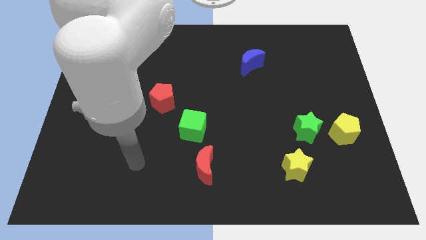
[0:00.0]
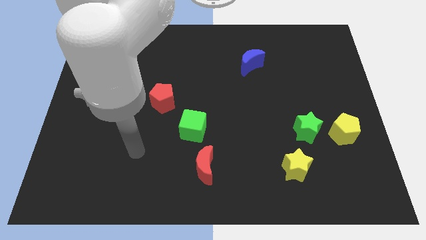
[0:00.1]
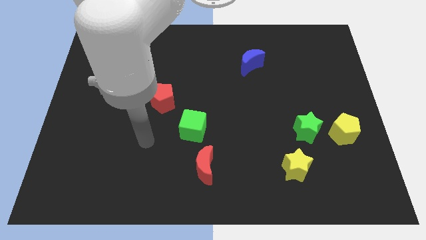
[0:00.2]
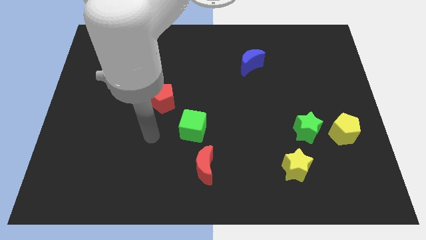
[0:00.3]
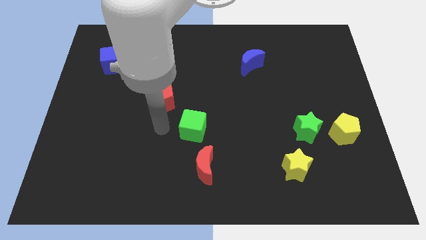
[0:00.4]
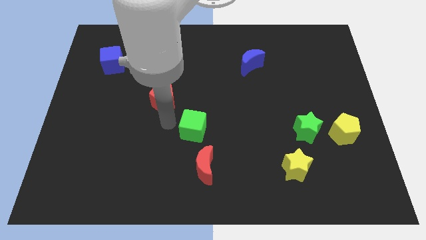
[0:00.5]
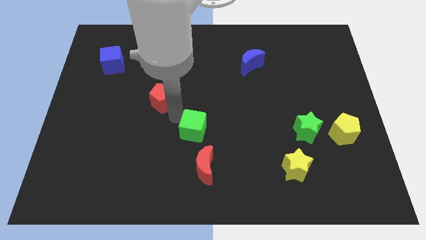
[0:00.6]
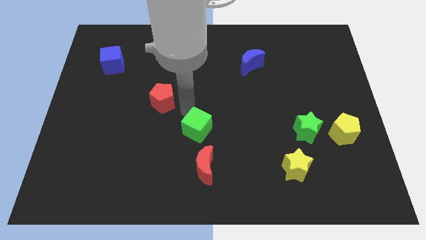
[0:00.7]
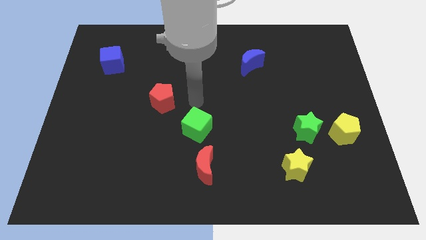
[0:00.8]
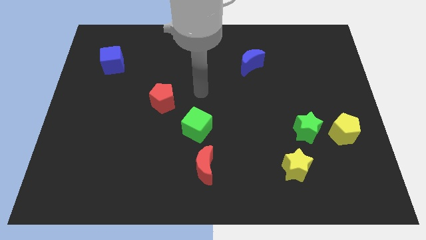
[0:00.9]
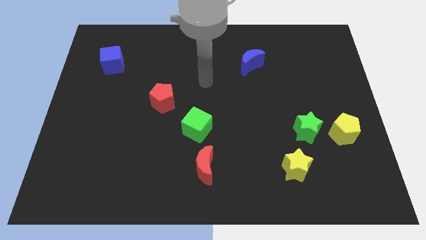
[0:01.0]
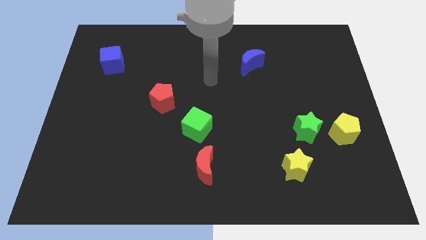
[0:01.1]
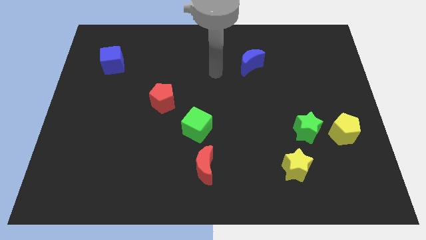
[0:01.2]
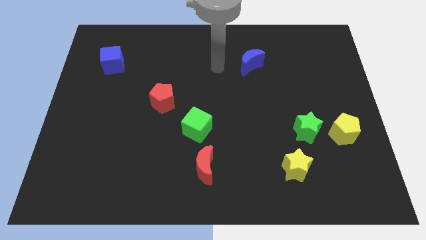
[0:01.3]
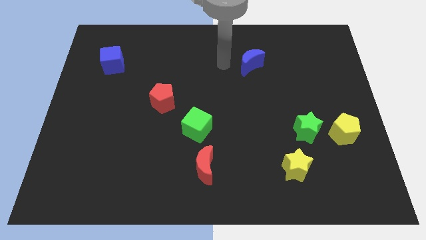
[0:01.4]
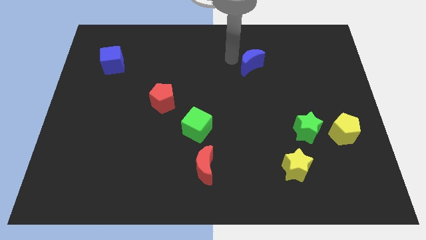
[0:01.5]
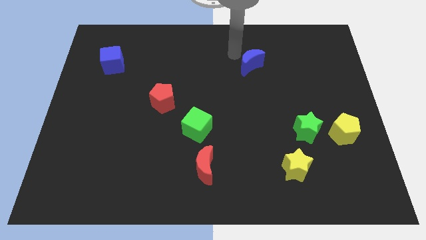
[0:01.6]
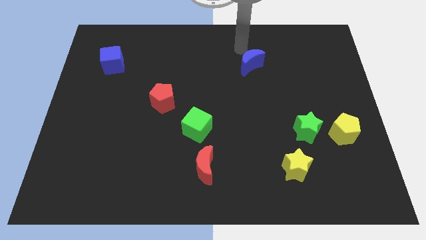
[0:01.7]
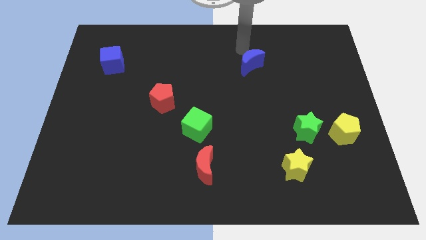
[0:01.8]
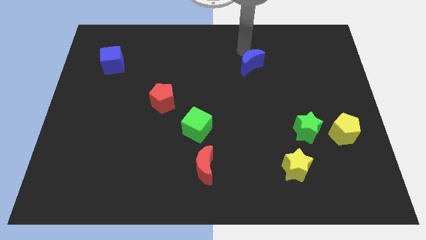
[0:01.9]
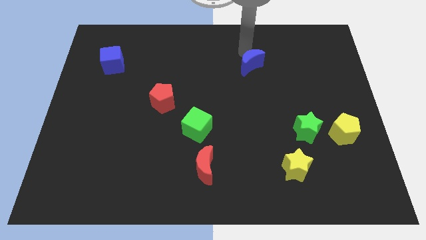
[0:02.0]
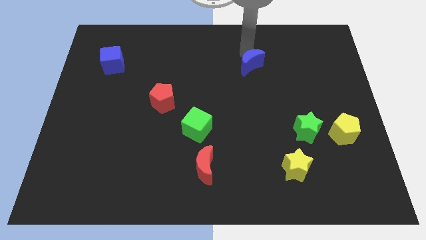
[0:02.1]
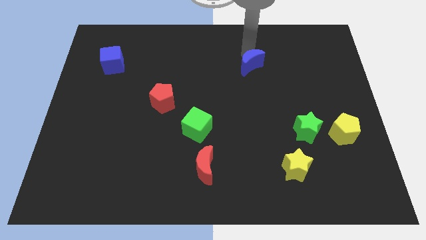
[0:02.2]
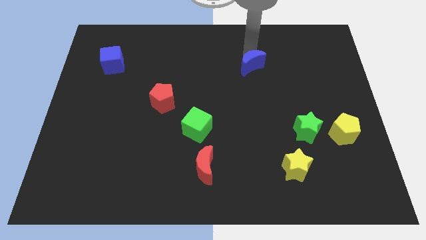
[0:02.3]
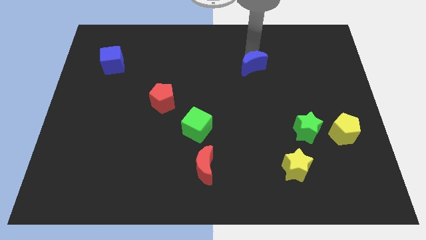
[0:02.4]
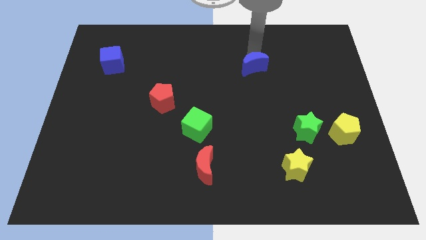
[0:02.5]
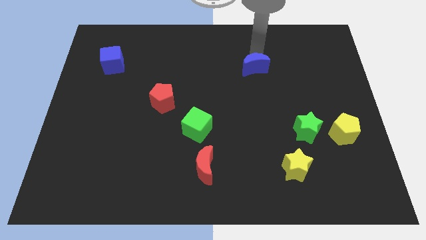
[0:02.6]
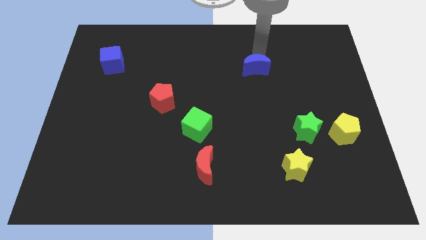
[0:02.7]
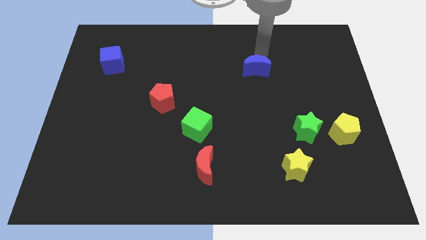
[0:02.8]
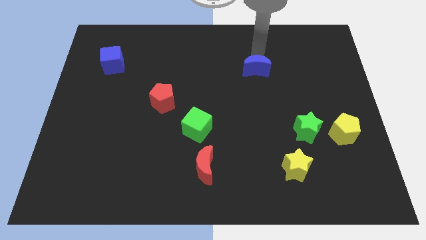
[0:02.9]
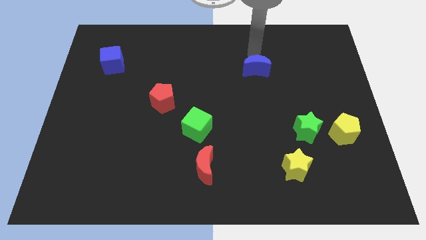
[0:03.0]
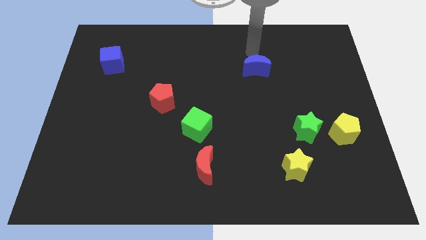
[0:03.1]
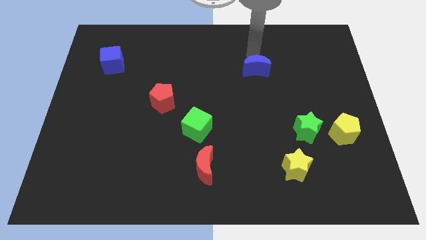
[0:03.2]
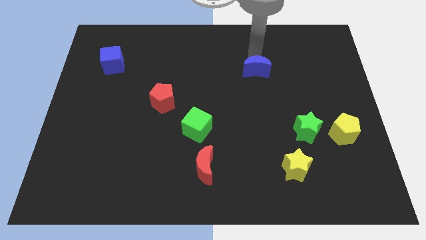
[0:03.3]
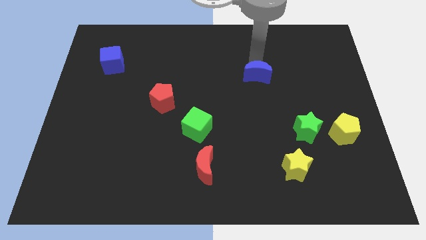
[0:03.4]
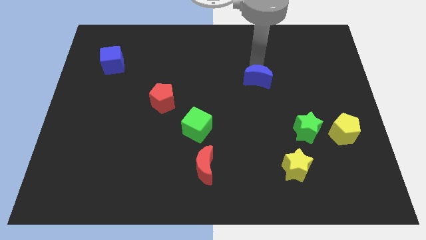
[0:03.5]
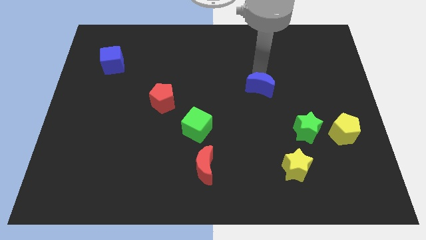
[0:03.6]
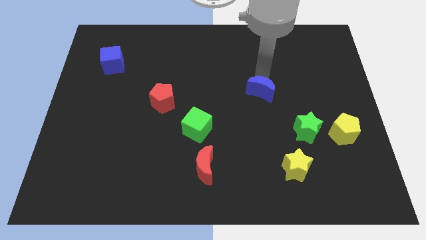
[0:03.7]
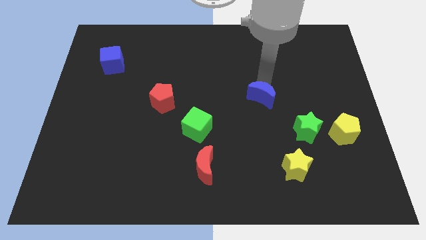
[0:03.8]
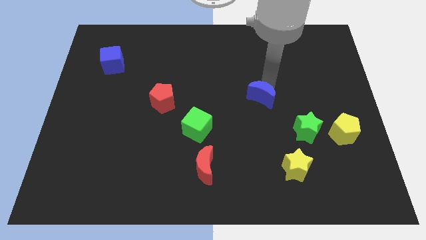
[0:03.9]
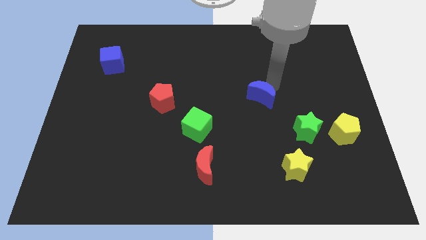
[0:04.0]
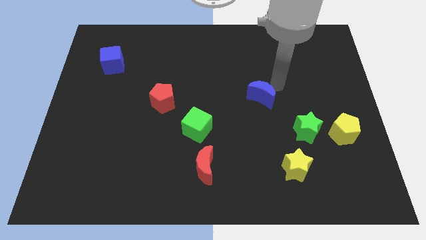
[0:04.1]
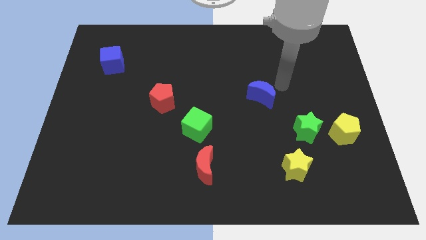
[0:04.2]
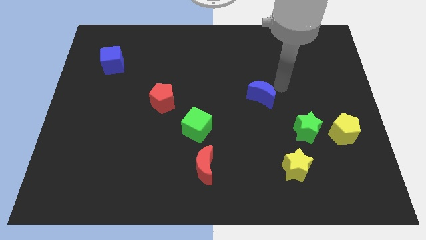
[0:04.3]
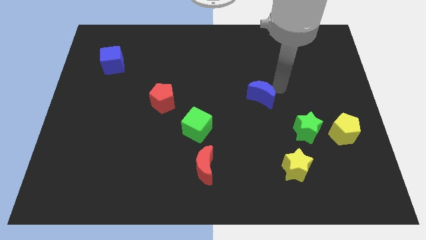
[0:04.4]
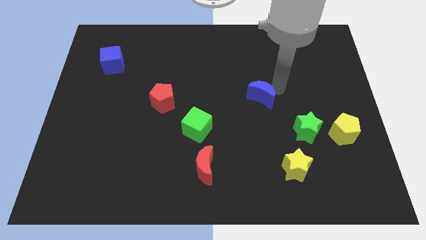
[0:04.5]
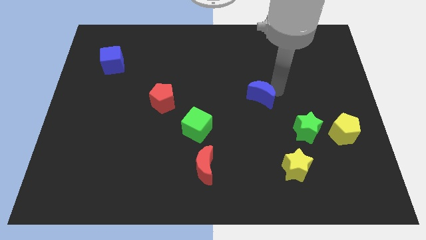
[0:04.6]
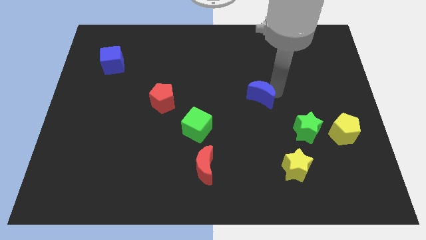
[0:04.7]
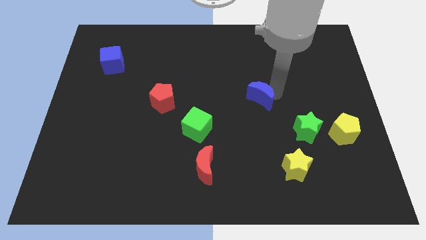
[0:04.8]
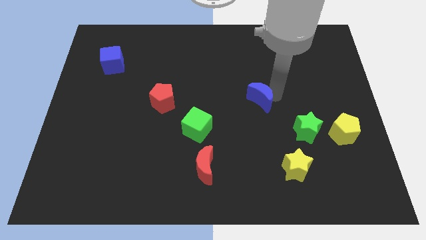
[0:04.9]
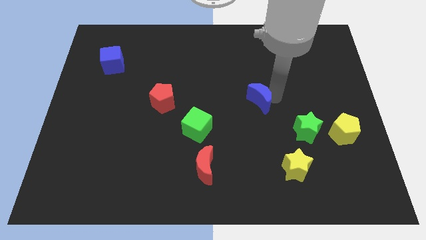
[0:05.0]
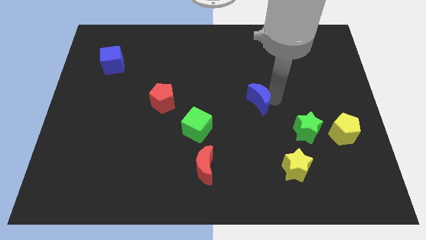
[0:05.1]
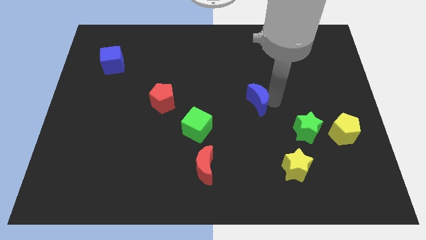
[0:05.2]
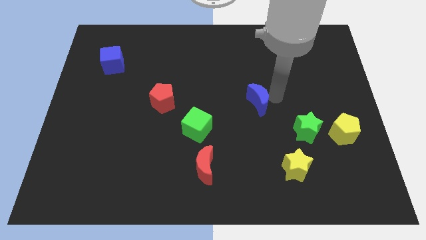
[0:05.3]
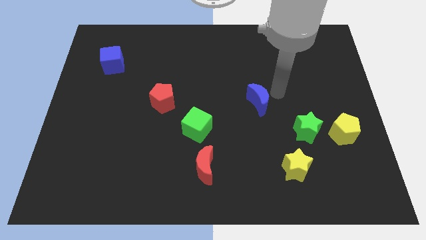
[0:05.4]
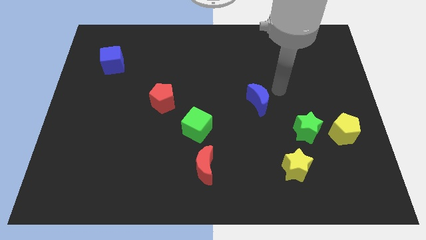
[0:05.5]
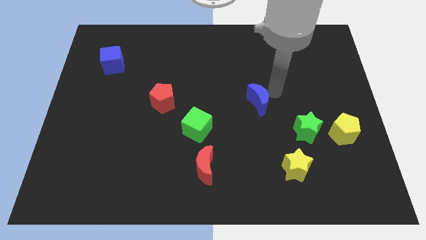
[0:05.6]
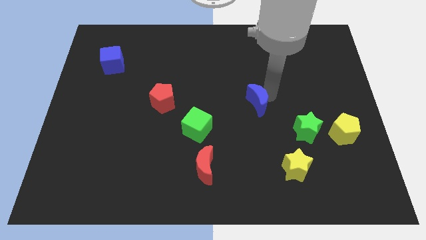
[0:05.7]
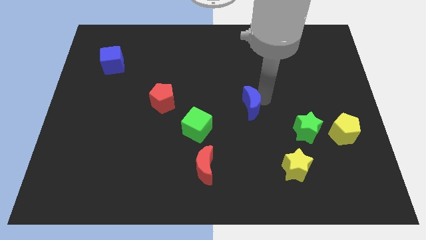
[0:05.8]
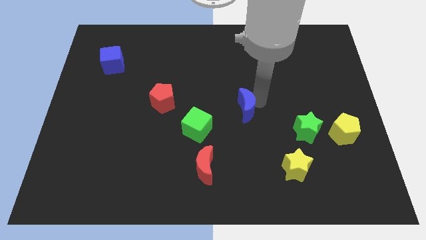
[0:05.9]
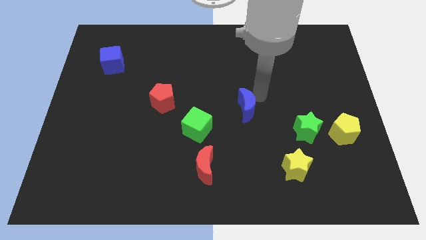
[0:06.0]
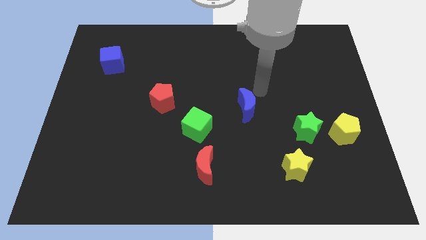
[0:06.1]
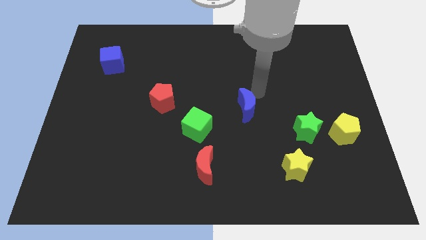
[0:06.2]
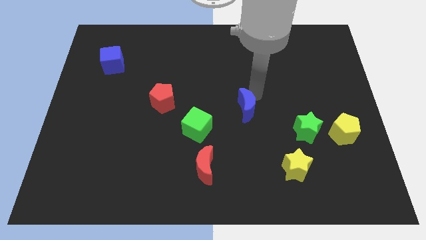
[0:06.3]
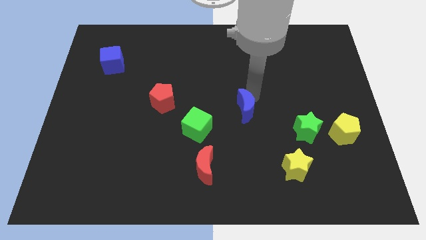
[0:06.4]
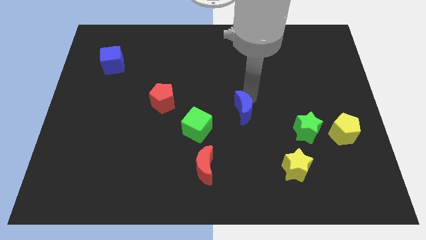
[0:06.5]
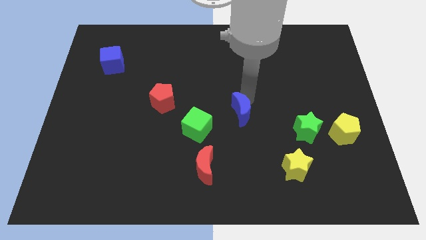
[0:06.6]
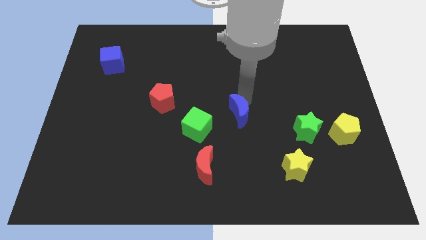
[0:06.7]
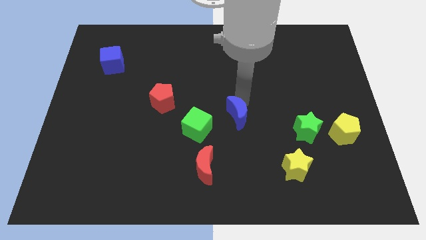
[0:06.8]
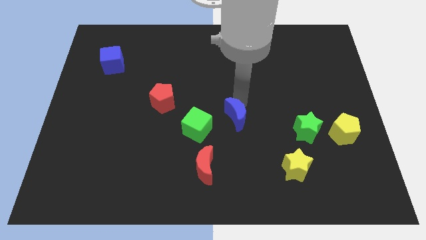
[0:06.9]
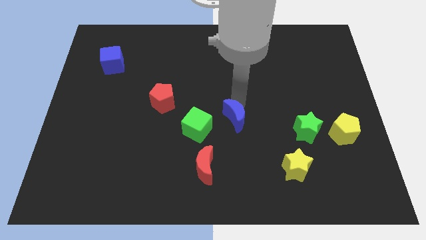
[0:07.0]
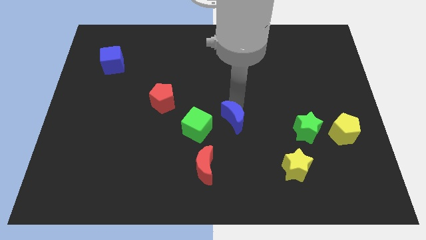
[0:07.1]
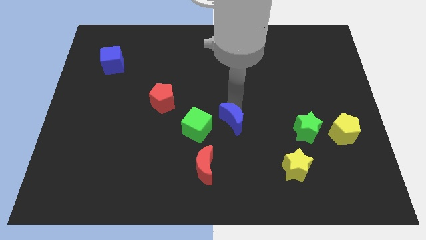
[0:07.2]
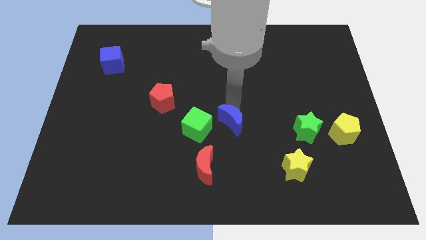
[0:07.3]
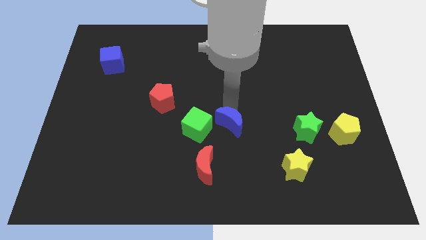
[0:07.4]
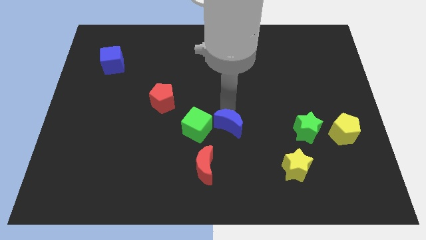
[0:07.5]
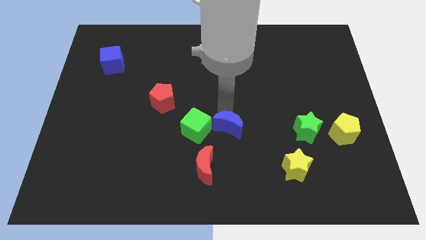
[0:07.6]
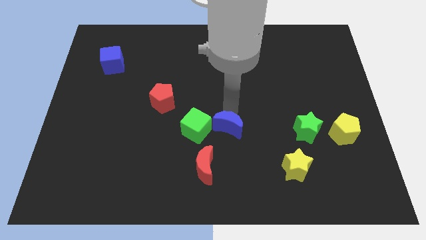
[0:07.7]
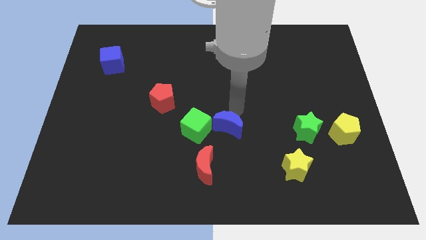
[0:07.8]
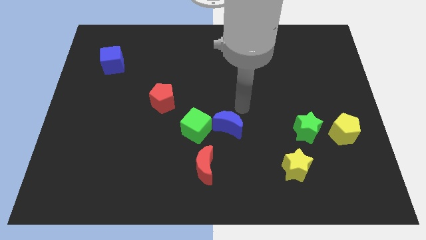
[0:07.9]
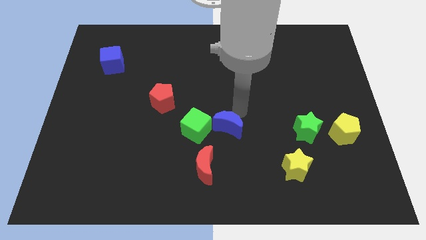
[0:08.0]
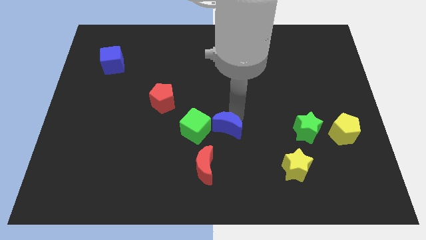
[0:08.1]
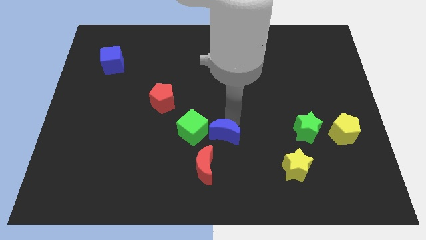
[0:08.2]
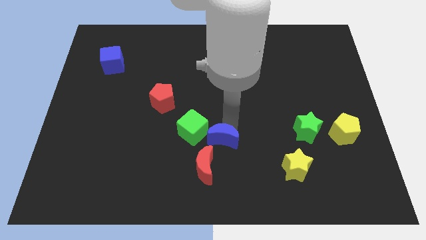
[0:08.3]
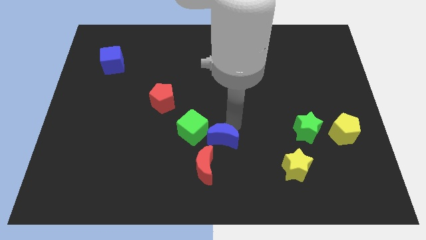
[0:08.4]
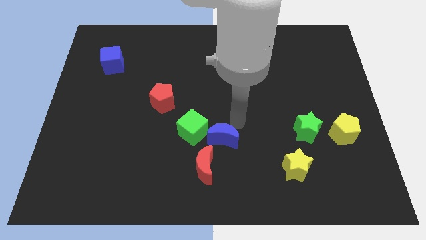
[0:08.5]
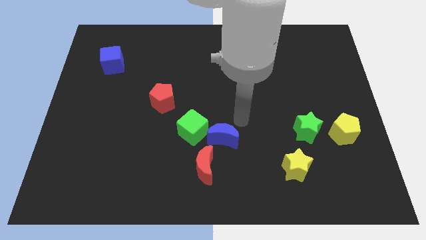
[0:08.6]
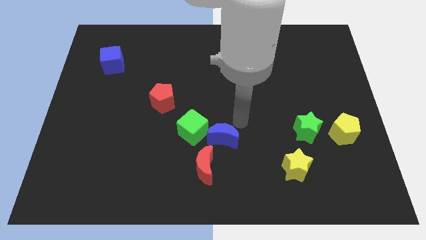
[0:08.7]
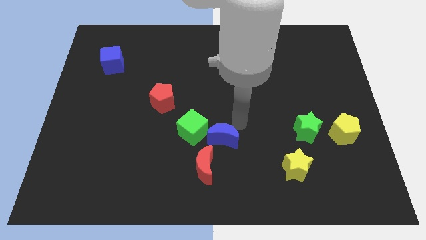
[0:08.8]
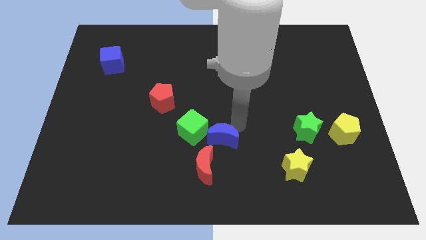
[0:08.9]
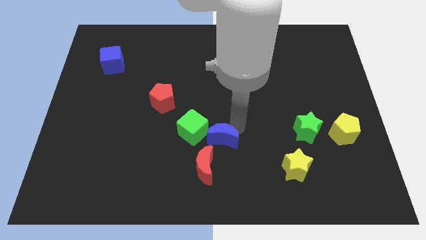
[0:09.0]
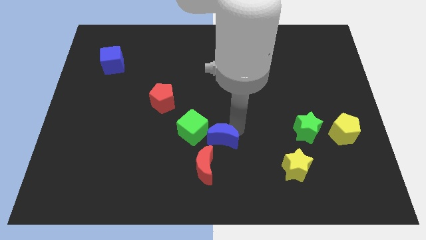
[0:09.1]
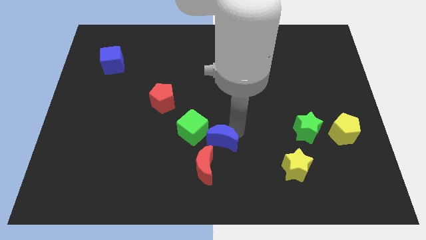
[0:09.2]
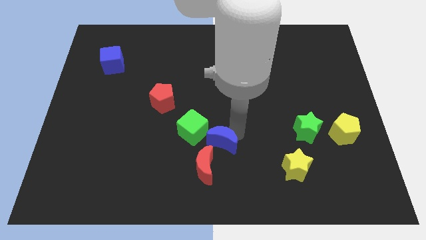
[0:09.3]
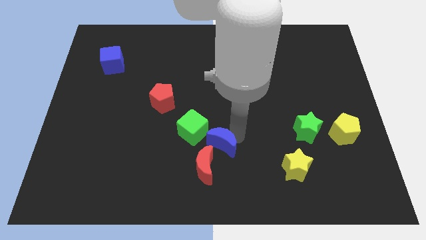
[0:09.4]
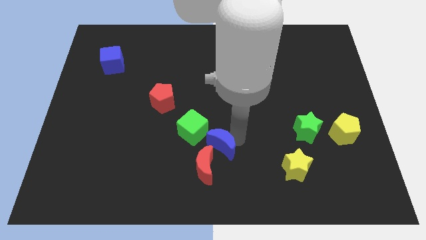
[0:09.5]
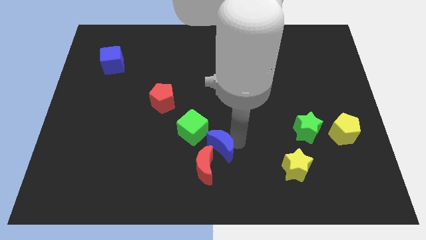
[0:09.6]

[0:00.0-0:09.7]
slide the blue moon towards the red moon
